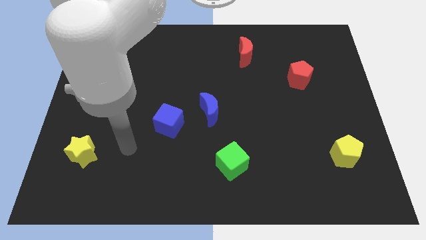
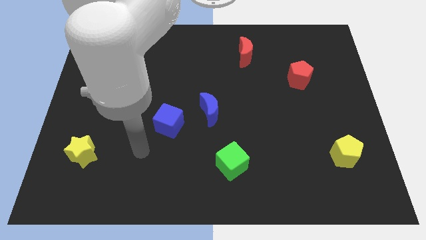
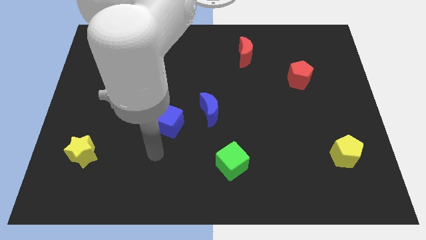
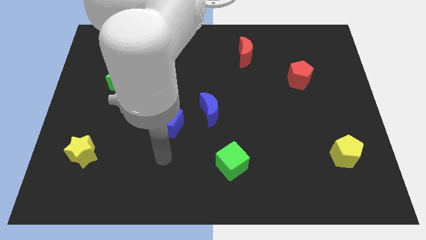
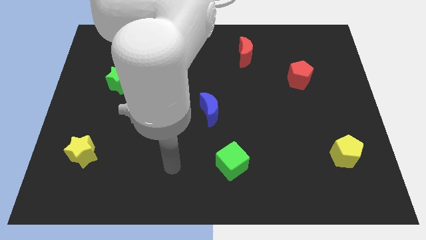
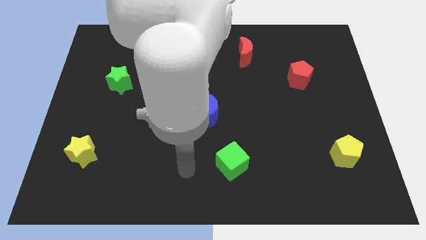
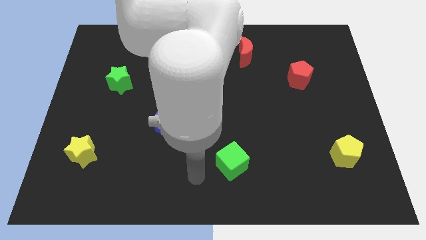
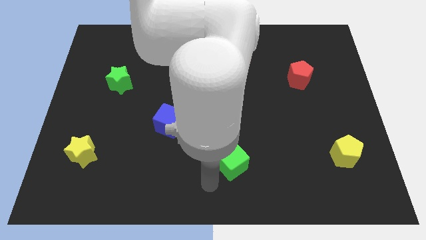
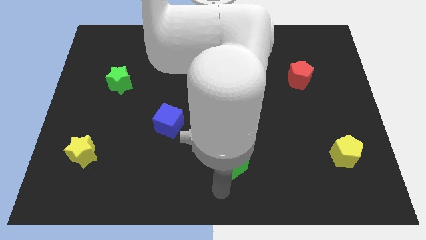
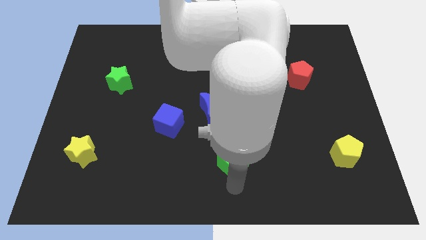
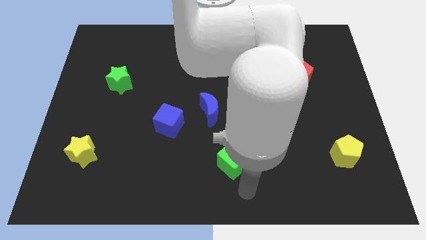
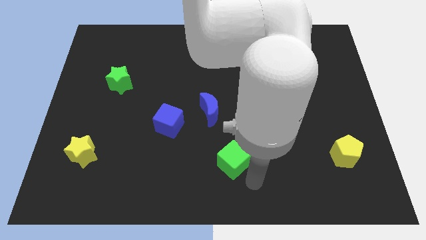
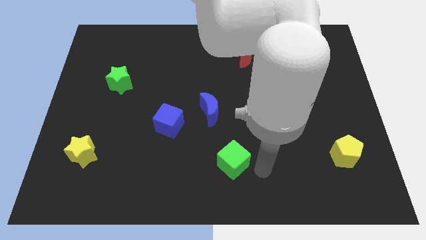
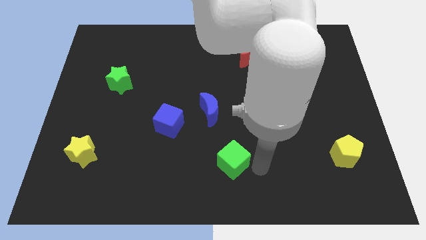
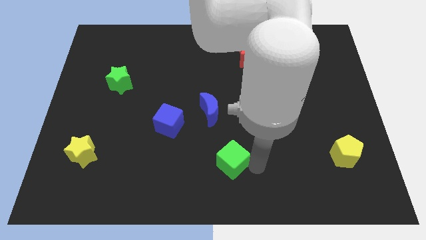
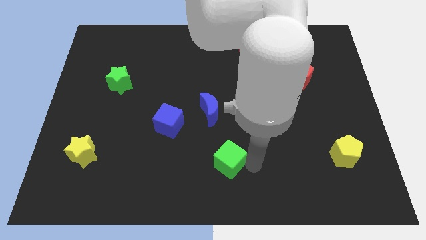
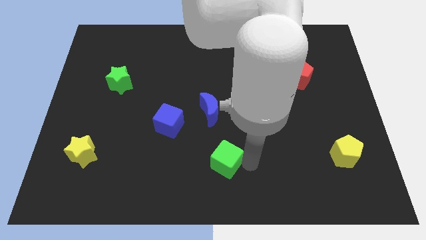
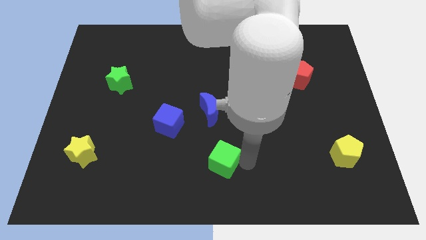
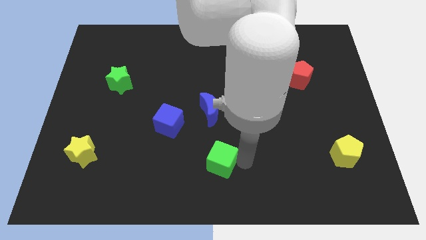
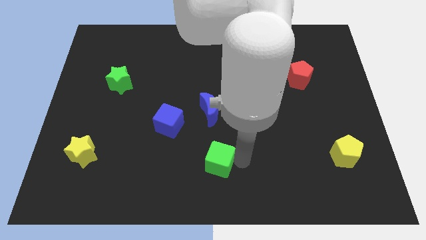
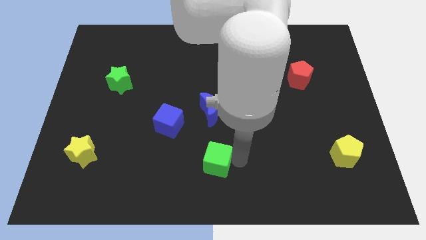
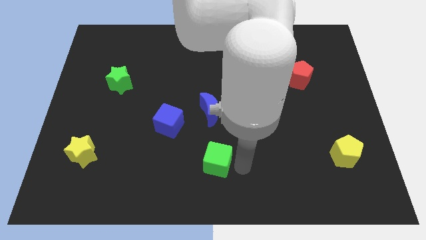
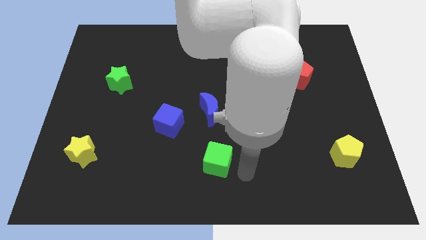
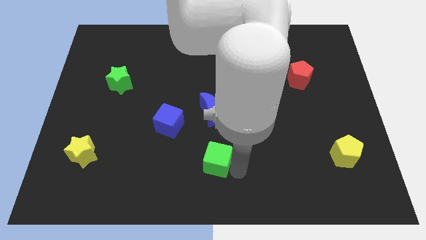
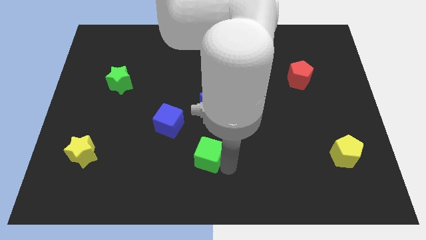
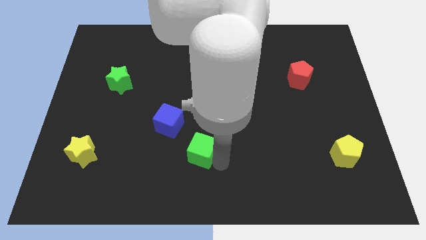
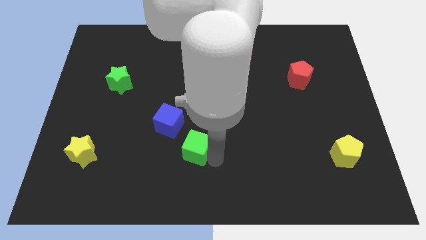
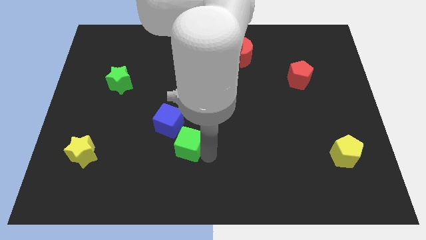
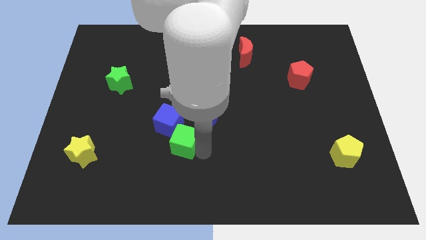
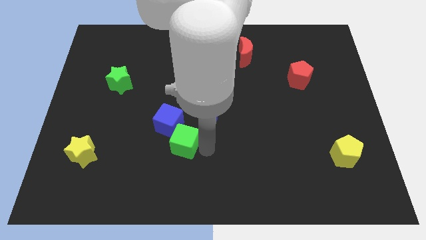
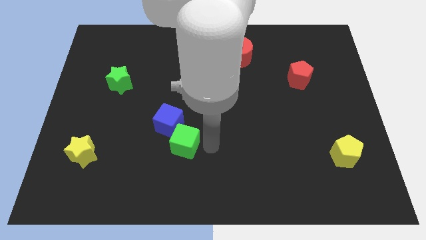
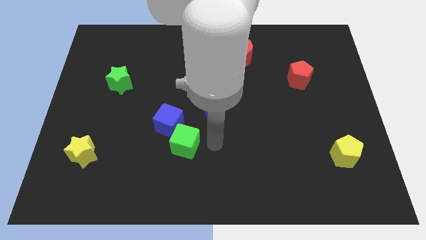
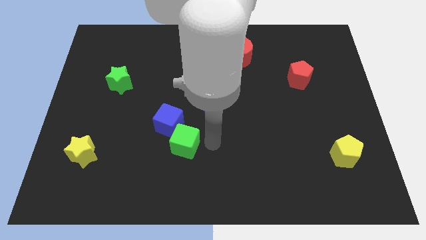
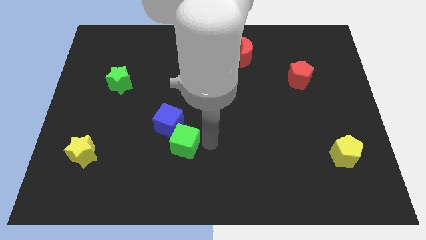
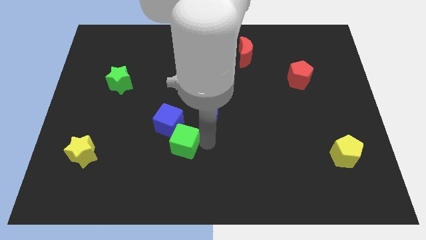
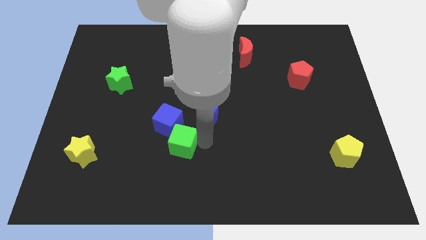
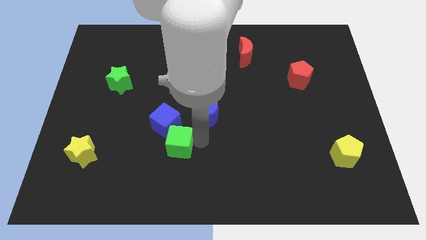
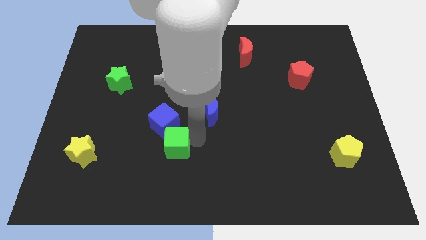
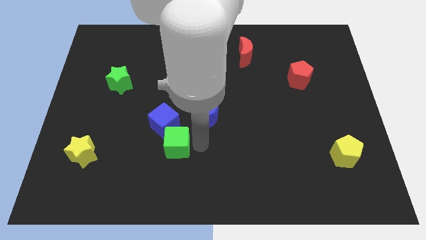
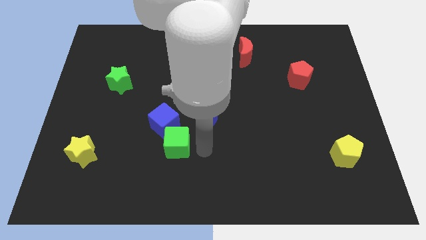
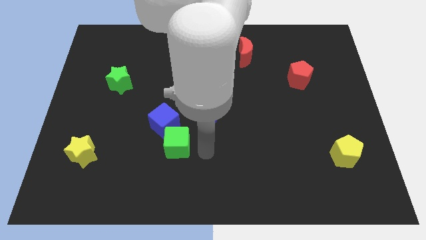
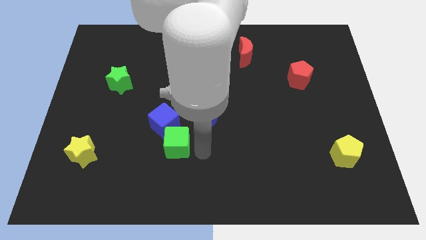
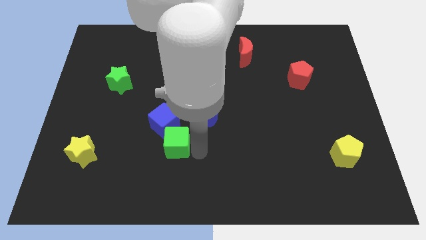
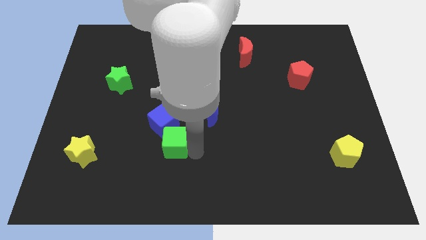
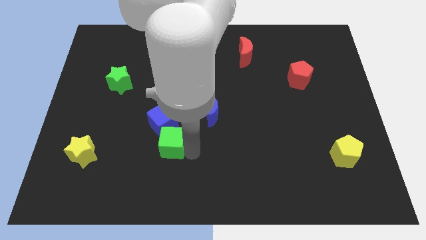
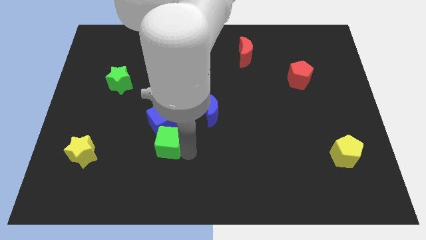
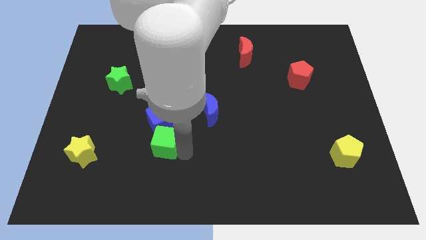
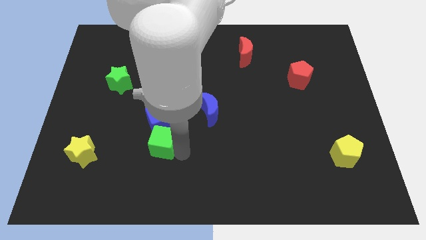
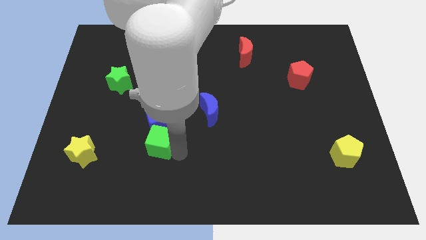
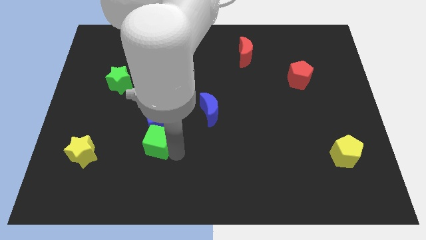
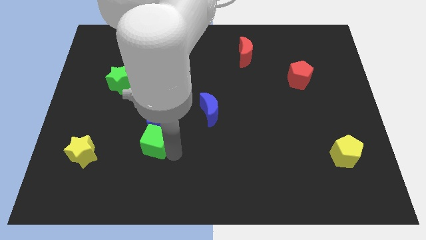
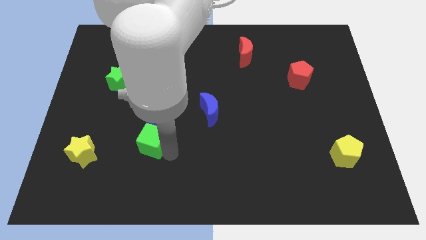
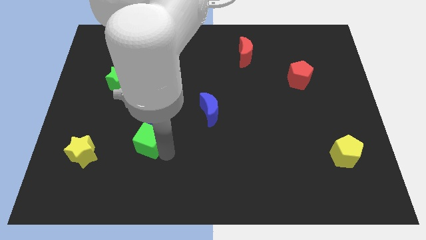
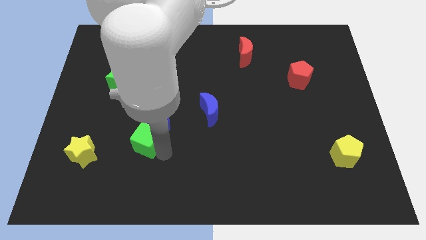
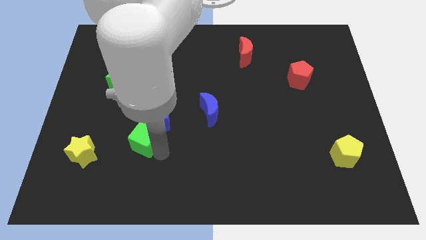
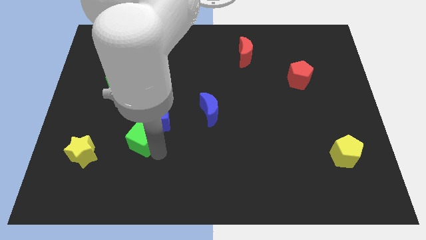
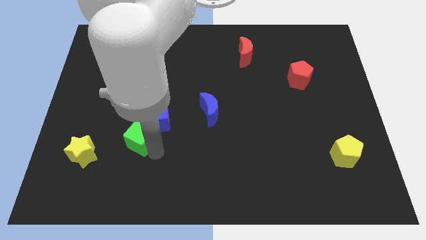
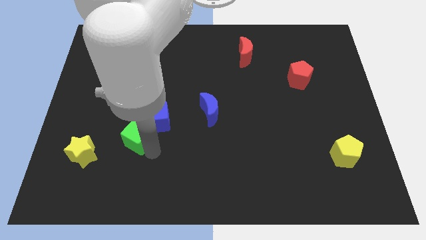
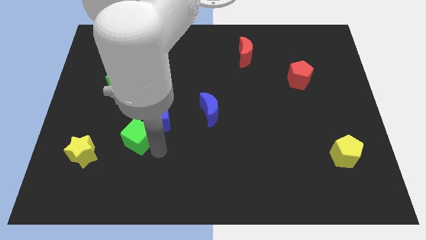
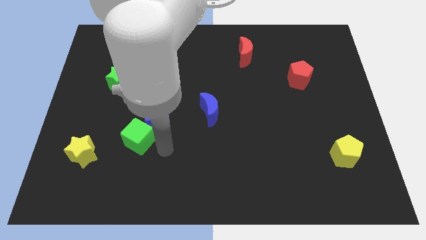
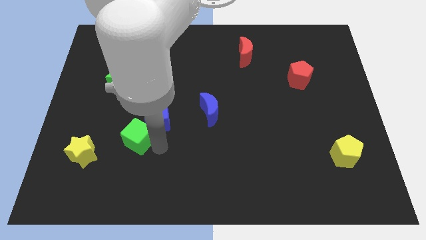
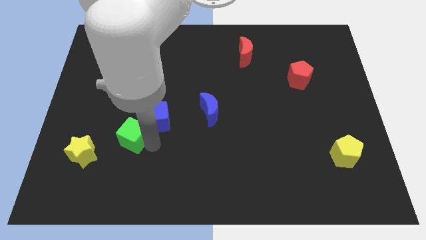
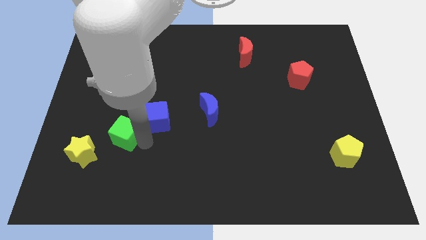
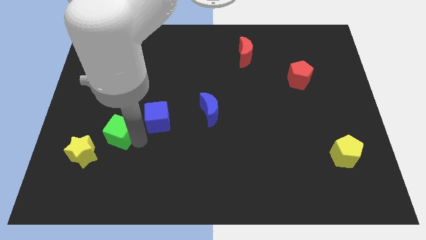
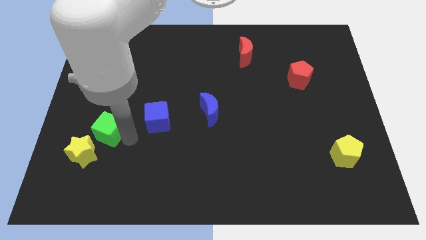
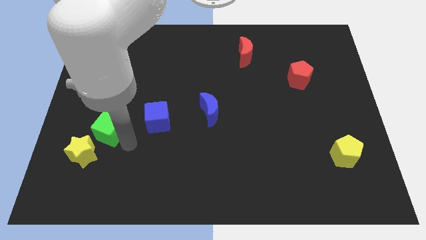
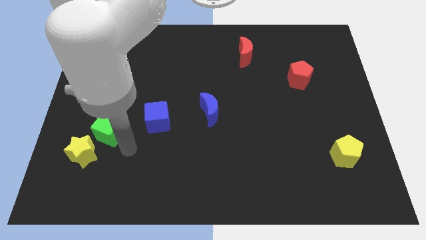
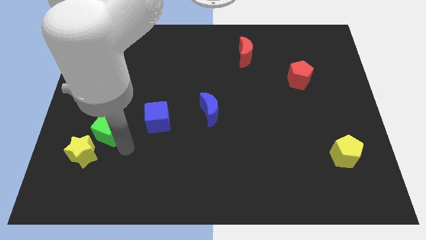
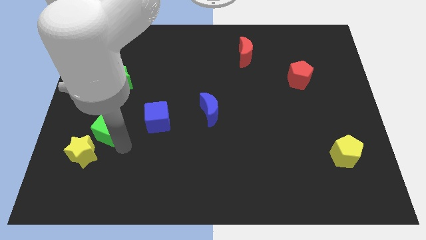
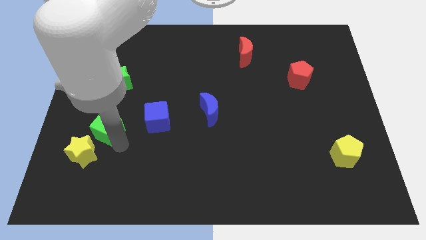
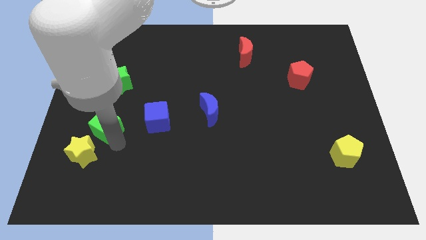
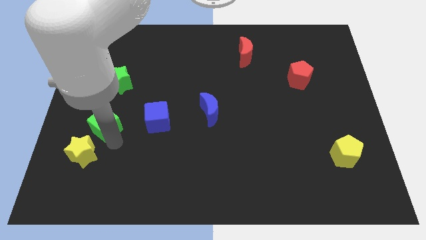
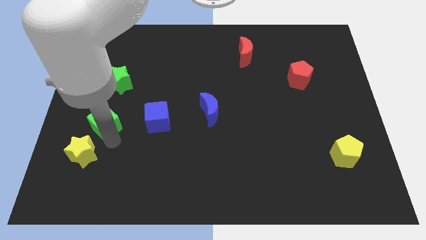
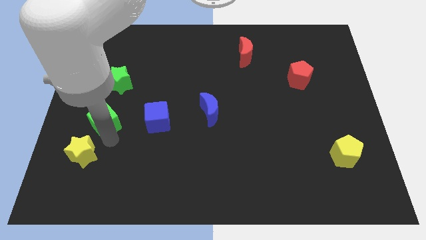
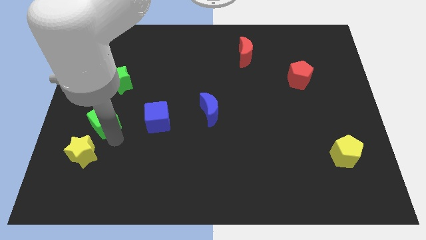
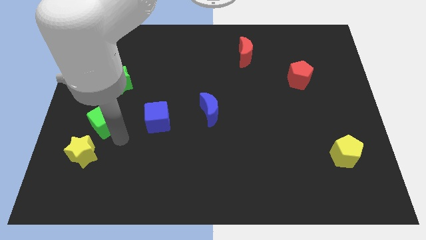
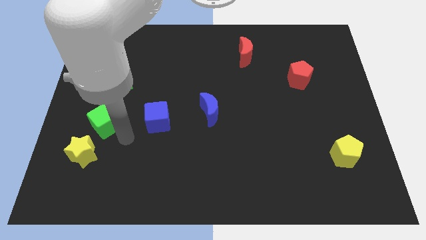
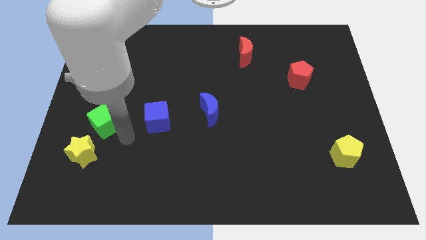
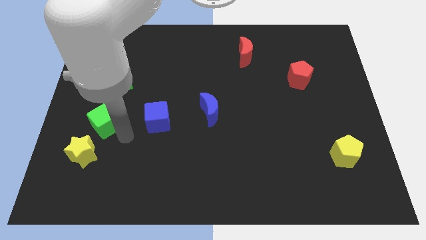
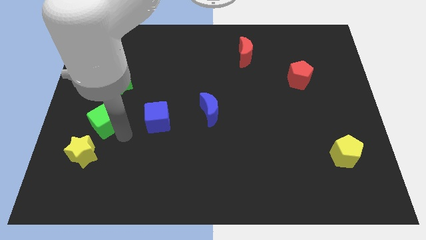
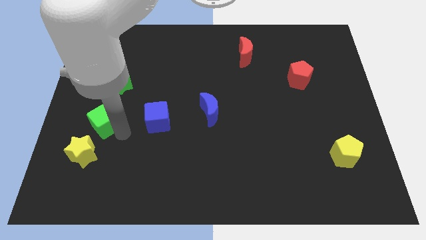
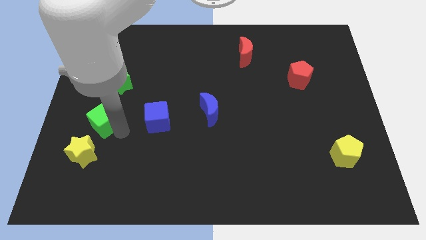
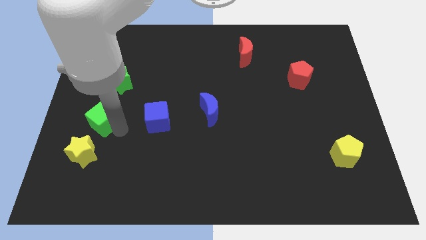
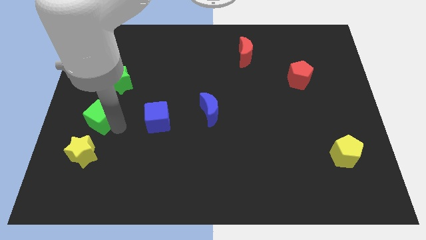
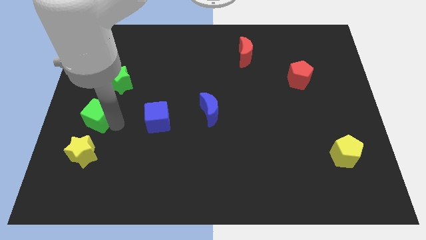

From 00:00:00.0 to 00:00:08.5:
slide the green cube to the left side
